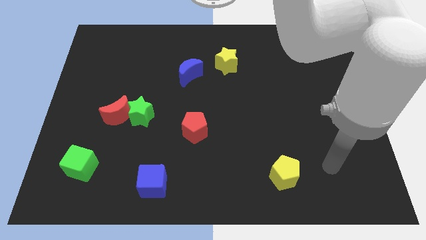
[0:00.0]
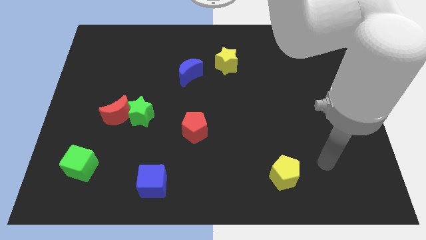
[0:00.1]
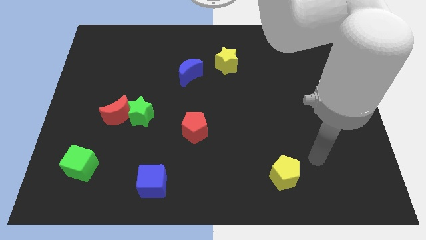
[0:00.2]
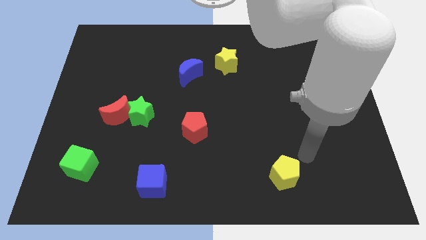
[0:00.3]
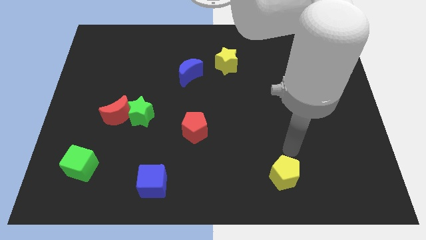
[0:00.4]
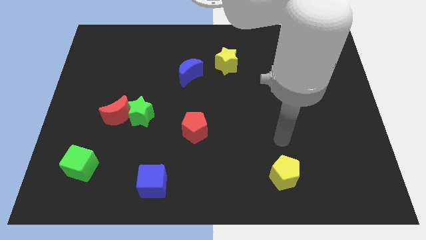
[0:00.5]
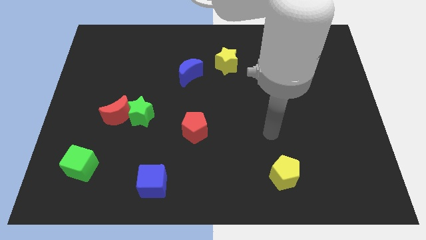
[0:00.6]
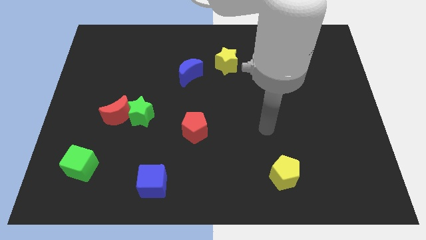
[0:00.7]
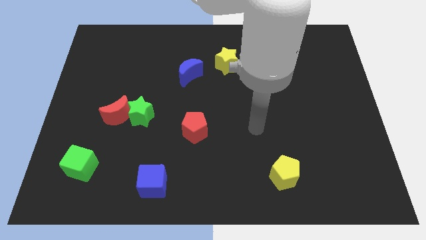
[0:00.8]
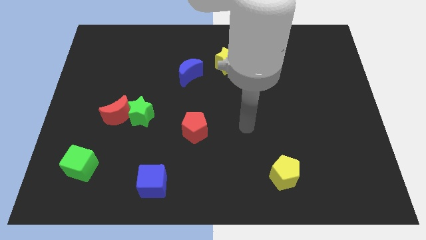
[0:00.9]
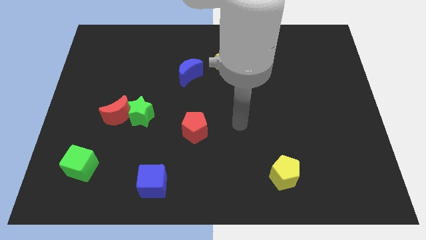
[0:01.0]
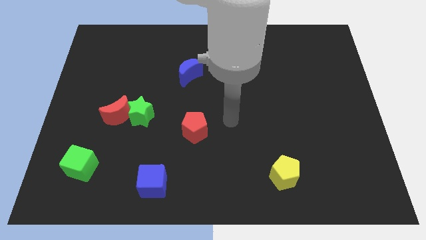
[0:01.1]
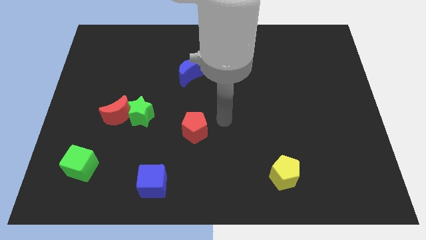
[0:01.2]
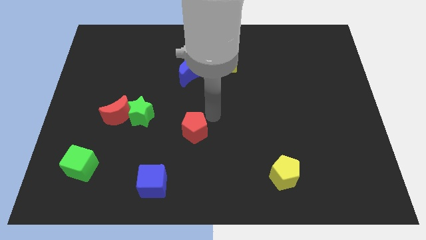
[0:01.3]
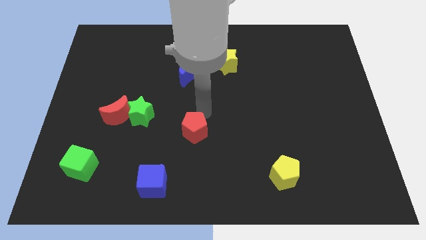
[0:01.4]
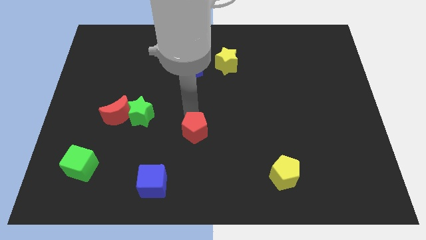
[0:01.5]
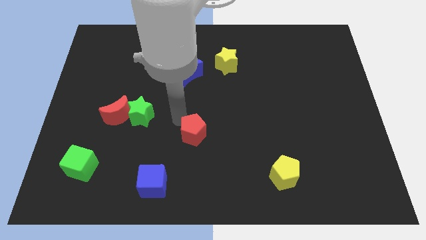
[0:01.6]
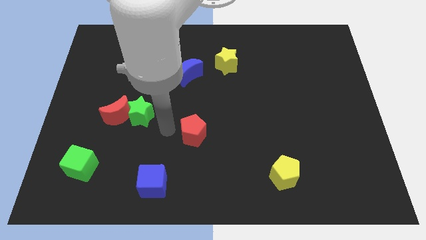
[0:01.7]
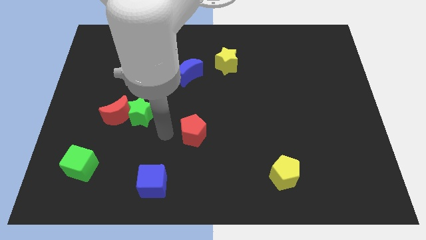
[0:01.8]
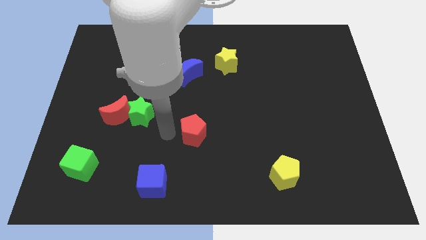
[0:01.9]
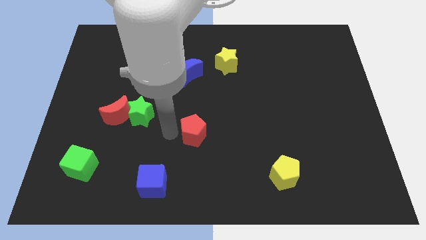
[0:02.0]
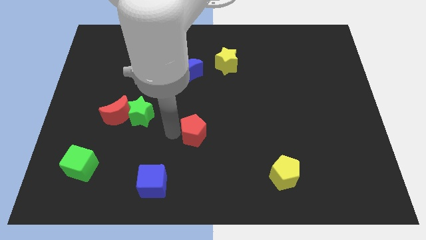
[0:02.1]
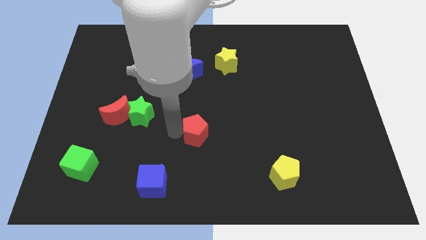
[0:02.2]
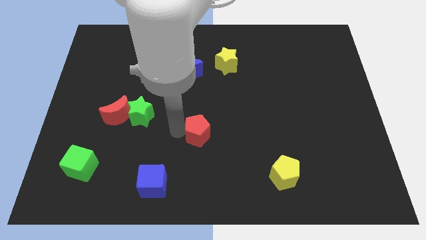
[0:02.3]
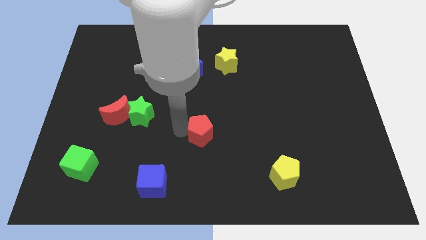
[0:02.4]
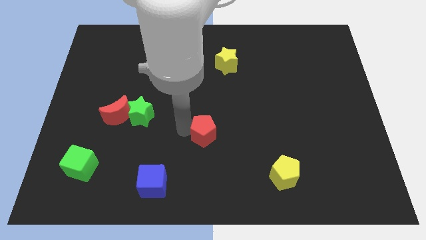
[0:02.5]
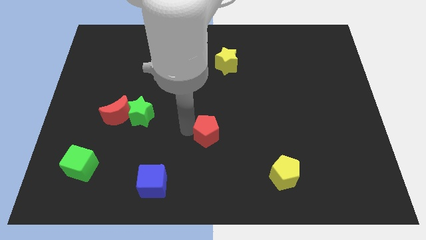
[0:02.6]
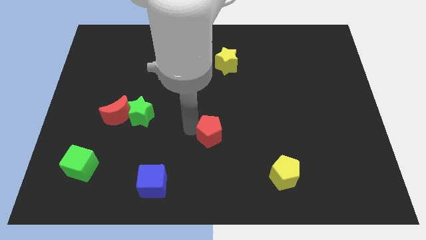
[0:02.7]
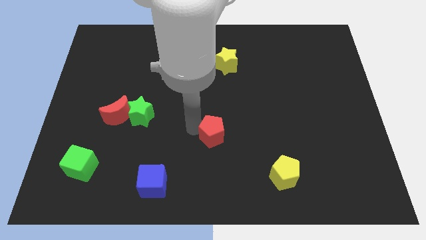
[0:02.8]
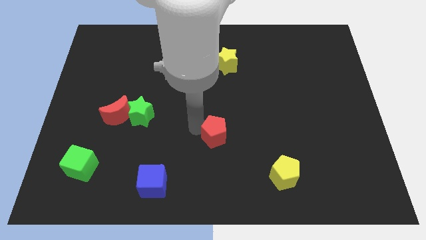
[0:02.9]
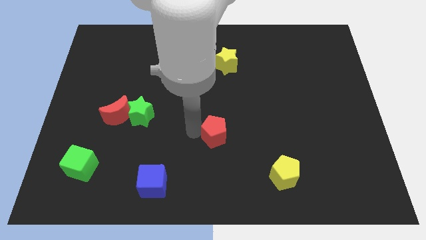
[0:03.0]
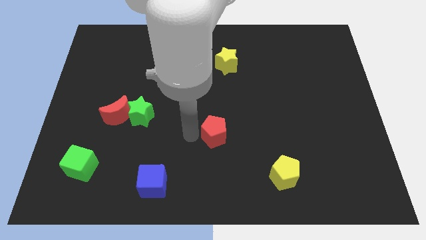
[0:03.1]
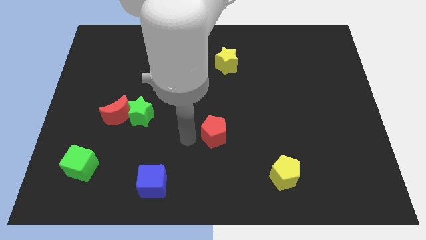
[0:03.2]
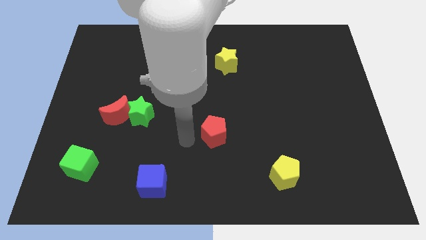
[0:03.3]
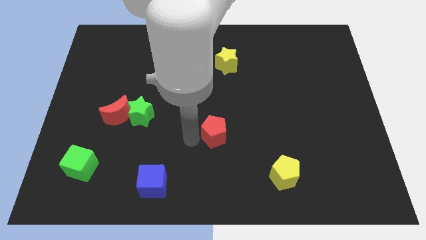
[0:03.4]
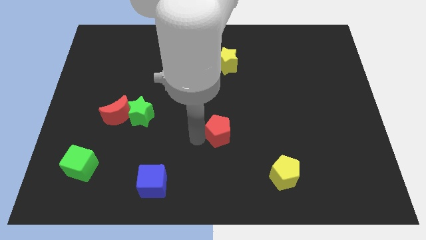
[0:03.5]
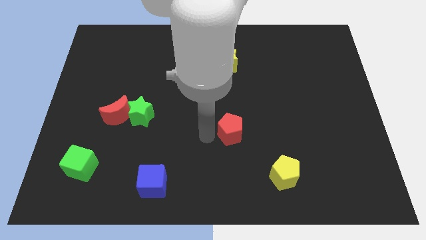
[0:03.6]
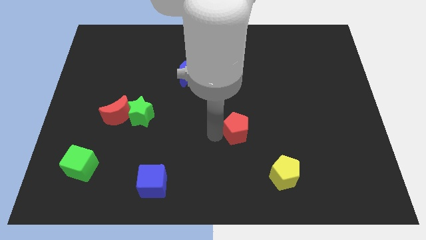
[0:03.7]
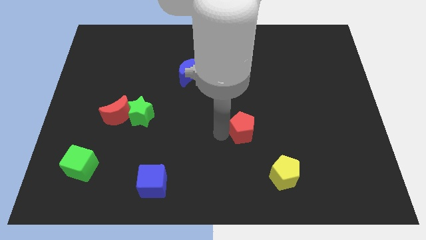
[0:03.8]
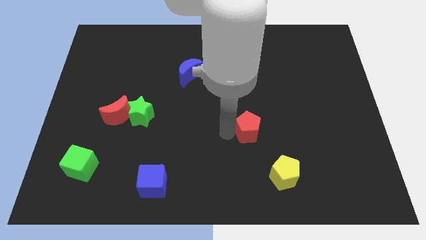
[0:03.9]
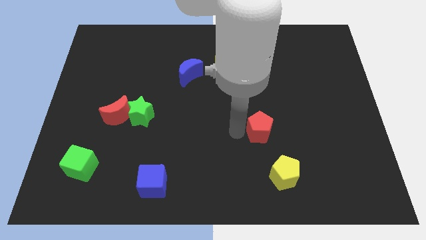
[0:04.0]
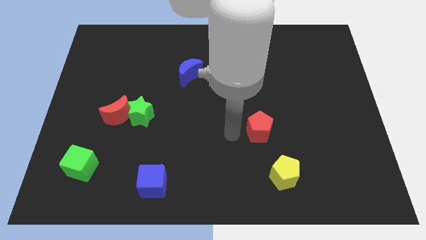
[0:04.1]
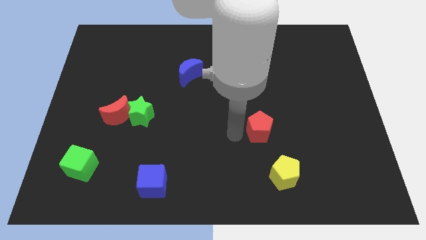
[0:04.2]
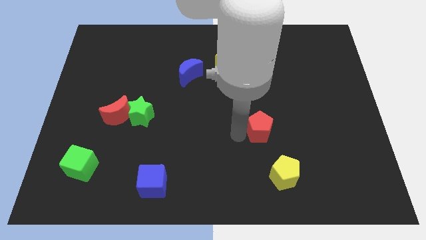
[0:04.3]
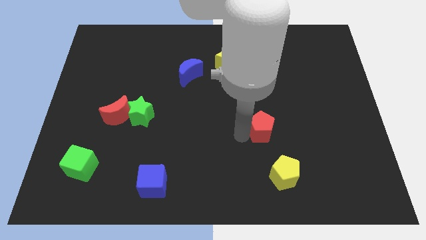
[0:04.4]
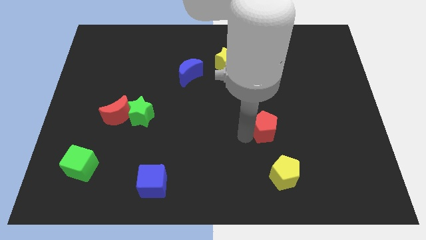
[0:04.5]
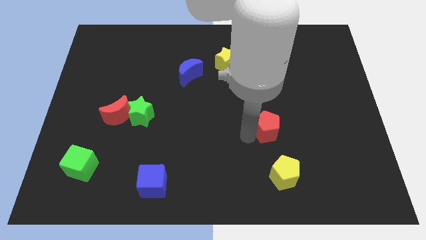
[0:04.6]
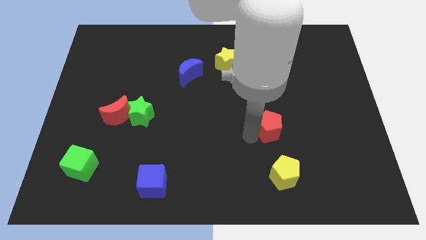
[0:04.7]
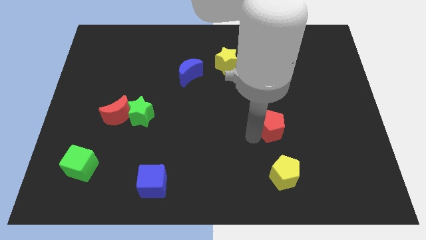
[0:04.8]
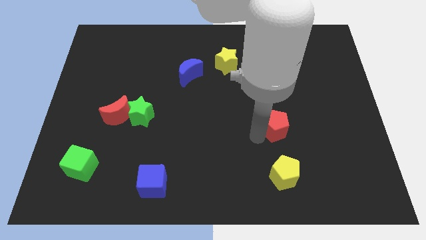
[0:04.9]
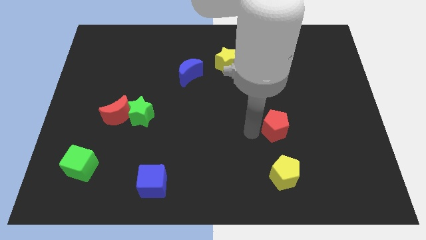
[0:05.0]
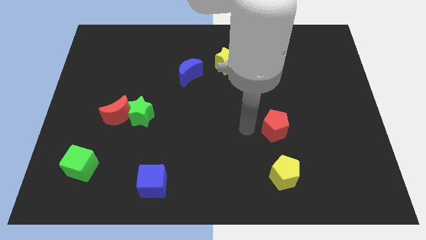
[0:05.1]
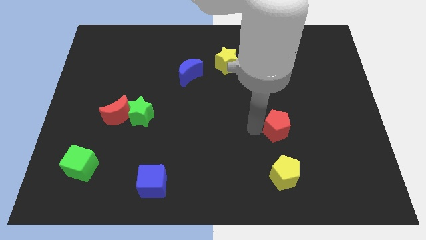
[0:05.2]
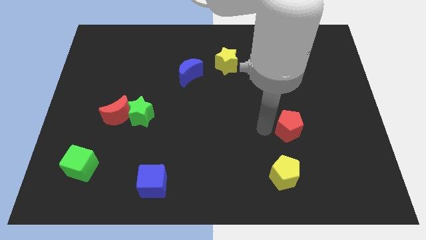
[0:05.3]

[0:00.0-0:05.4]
push the red pentagon right

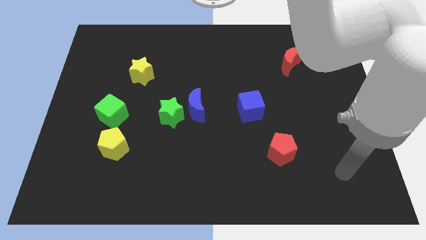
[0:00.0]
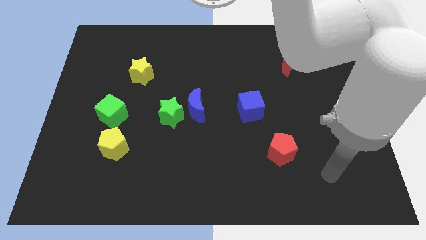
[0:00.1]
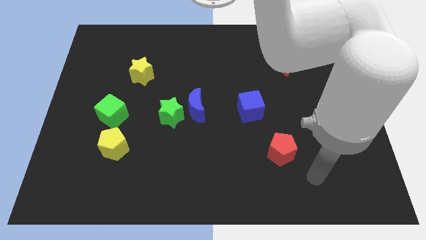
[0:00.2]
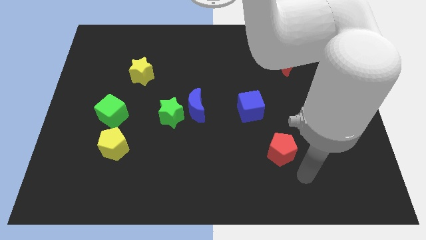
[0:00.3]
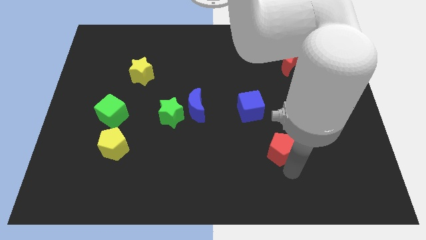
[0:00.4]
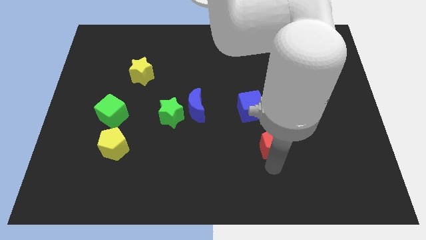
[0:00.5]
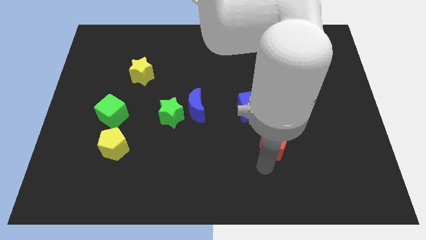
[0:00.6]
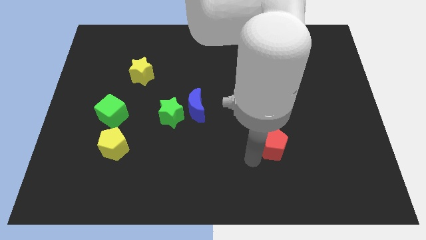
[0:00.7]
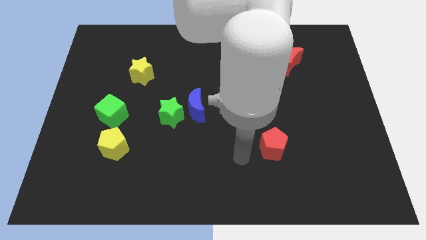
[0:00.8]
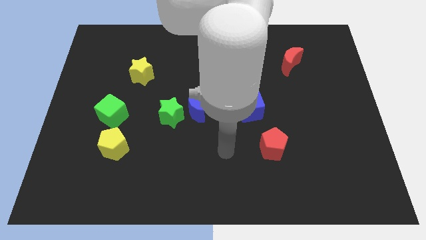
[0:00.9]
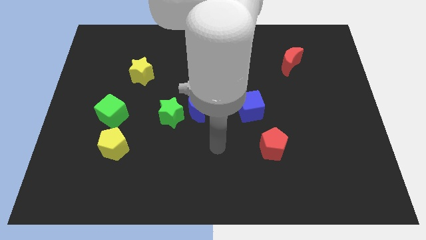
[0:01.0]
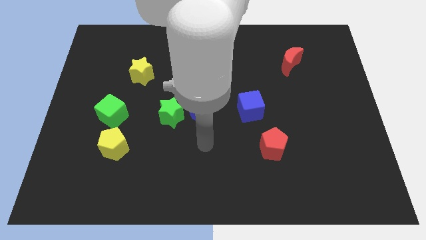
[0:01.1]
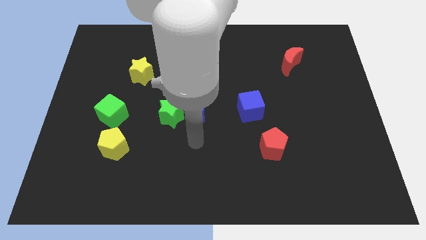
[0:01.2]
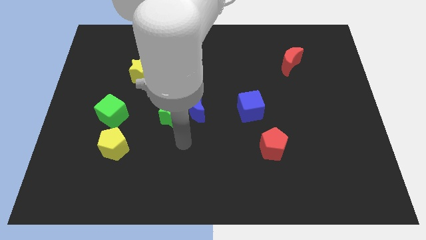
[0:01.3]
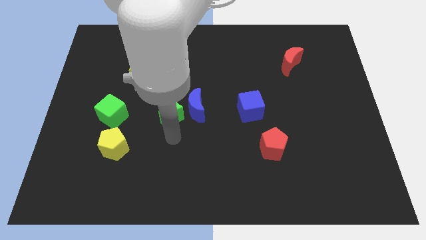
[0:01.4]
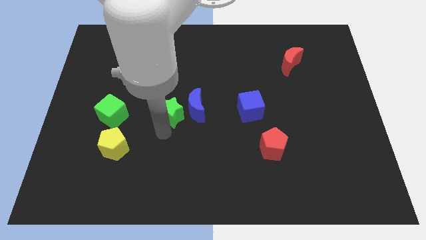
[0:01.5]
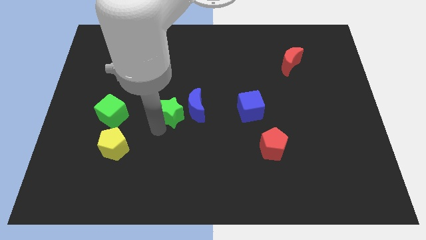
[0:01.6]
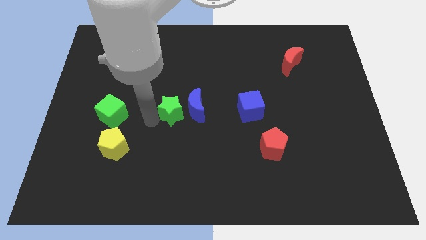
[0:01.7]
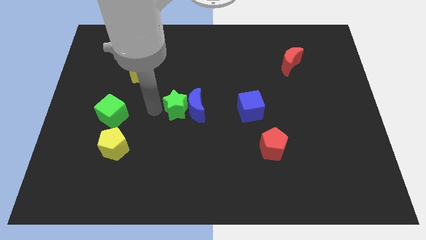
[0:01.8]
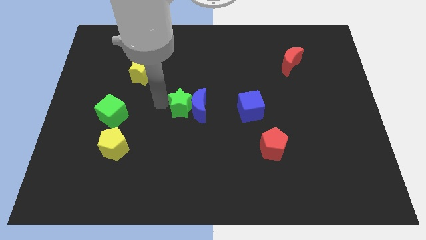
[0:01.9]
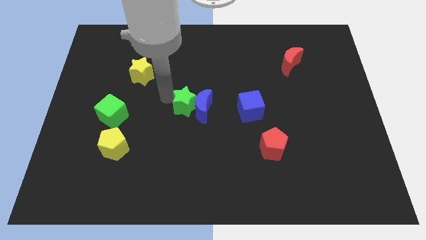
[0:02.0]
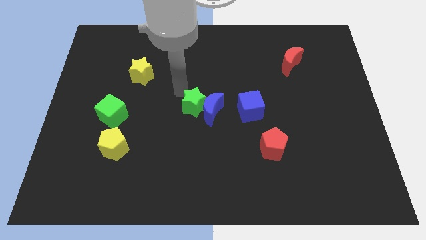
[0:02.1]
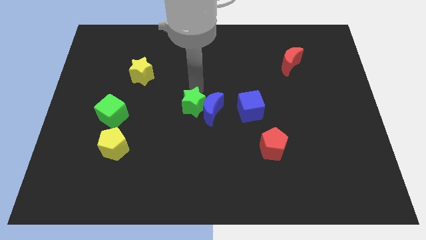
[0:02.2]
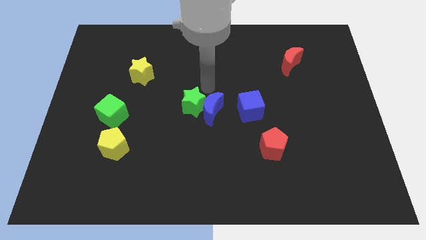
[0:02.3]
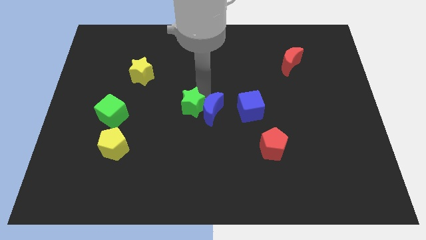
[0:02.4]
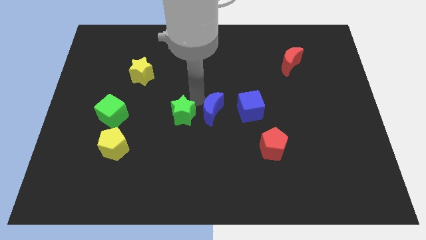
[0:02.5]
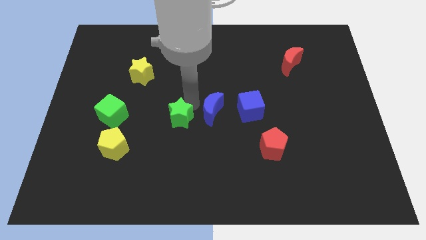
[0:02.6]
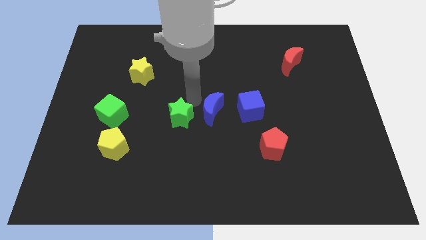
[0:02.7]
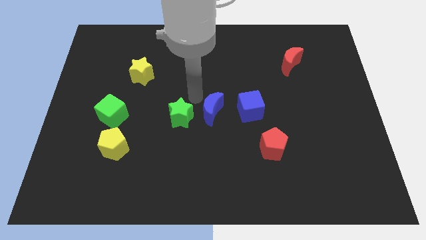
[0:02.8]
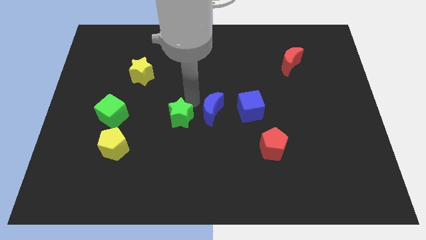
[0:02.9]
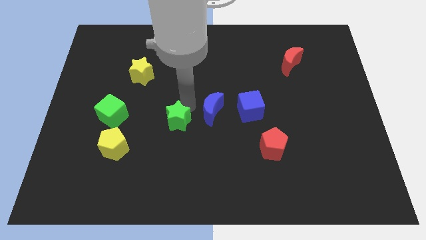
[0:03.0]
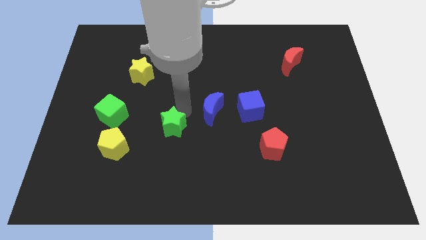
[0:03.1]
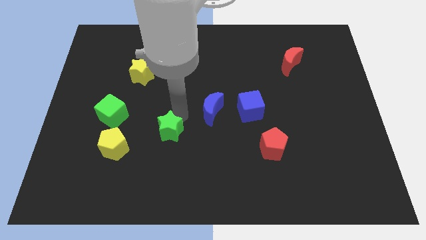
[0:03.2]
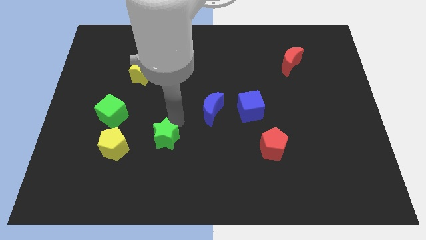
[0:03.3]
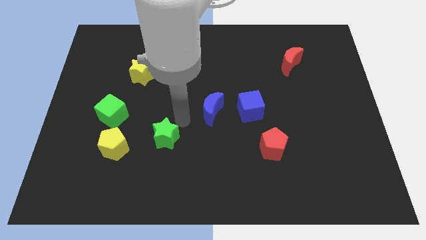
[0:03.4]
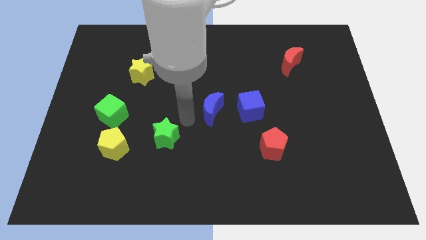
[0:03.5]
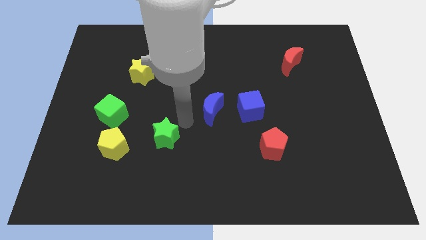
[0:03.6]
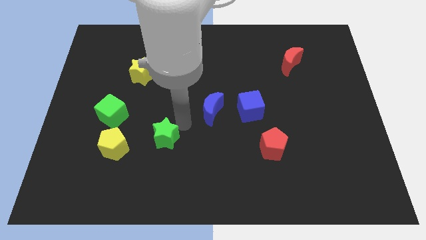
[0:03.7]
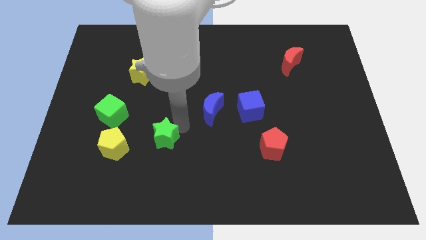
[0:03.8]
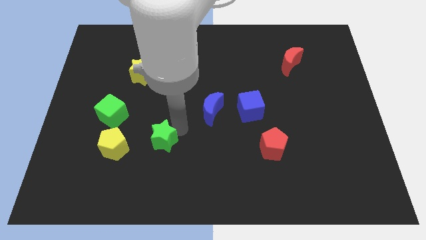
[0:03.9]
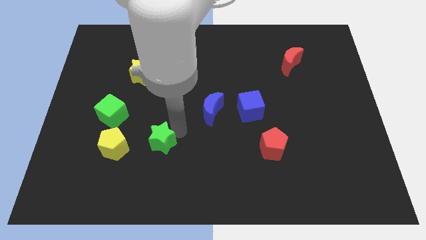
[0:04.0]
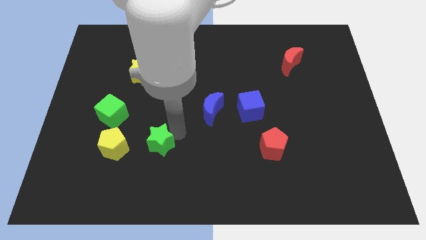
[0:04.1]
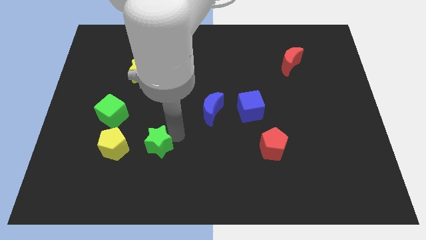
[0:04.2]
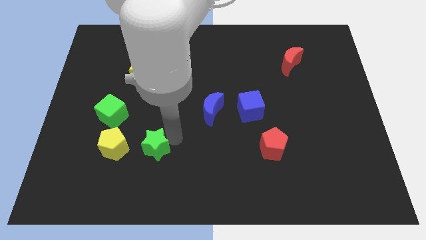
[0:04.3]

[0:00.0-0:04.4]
slide the green star down and then left a bit
